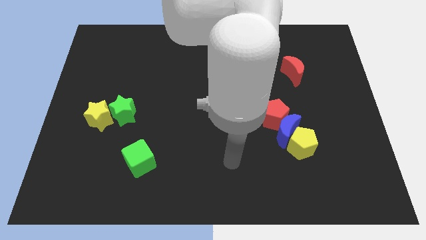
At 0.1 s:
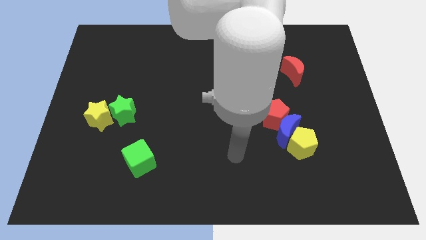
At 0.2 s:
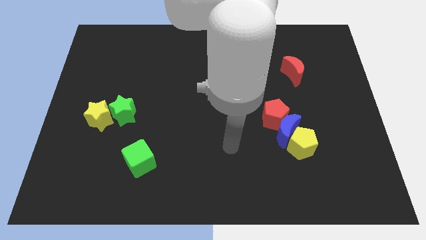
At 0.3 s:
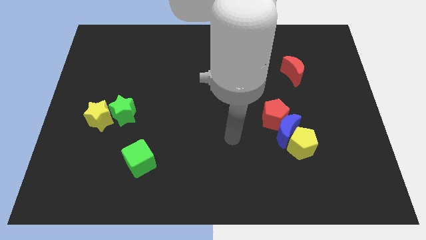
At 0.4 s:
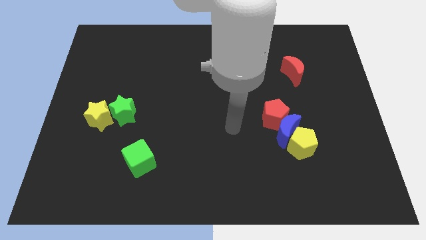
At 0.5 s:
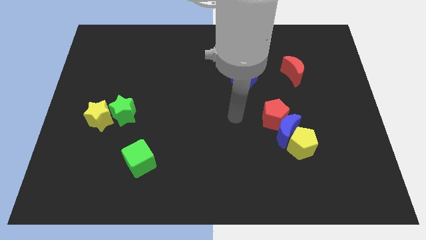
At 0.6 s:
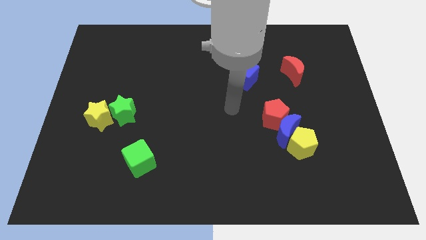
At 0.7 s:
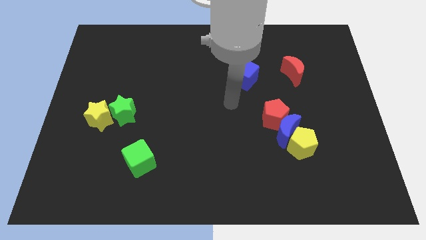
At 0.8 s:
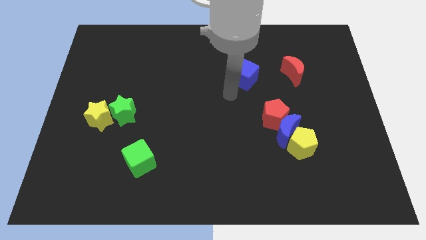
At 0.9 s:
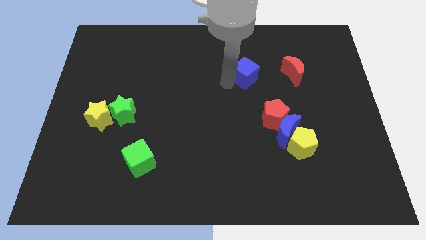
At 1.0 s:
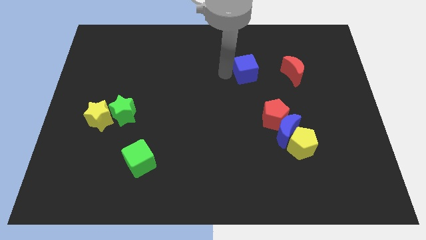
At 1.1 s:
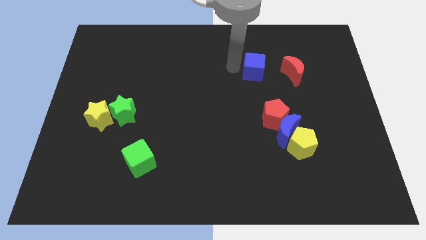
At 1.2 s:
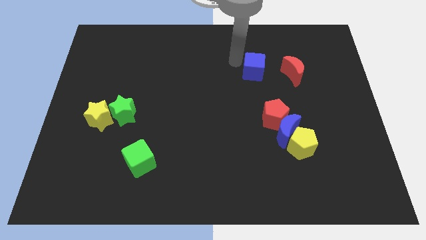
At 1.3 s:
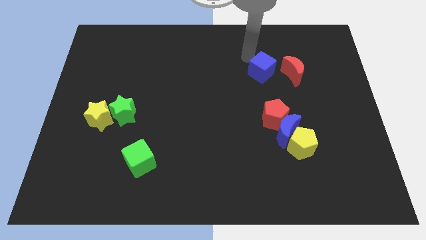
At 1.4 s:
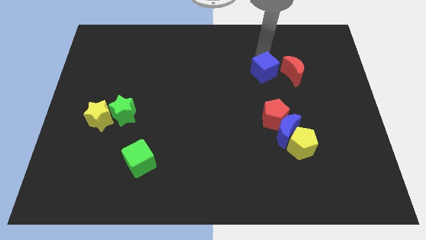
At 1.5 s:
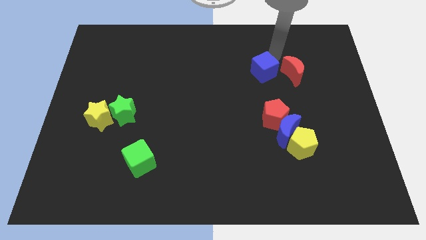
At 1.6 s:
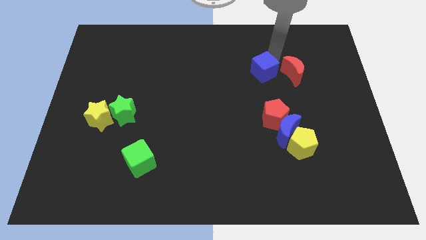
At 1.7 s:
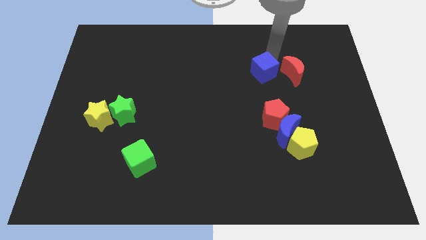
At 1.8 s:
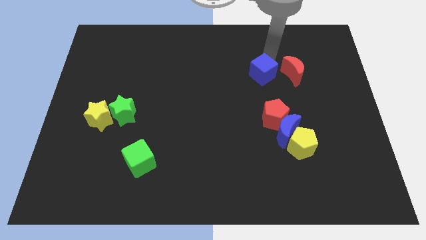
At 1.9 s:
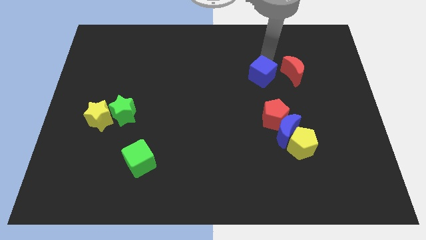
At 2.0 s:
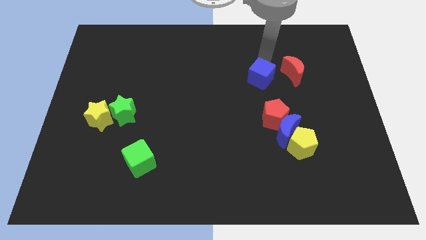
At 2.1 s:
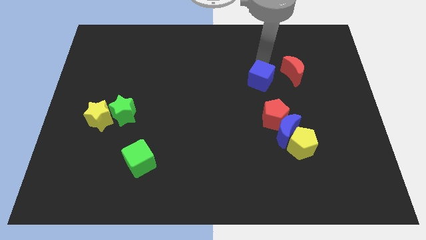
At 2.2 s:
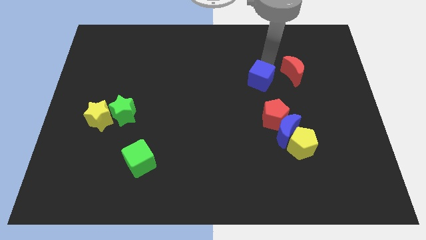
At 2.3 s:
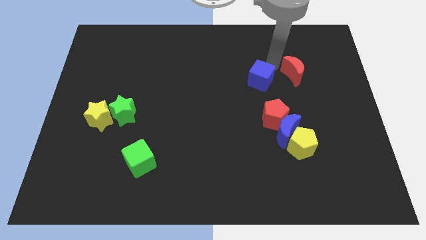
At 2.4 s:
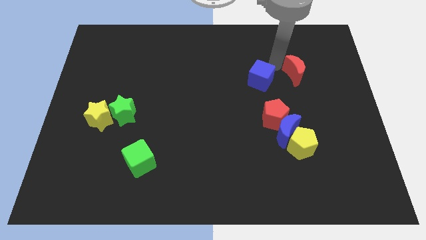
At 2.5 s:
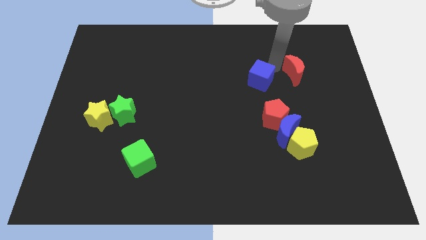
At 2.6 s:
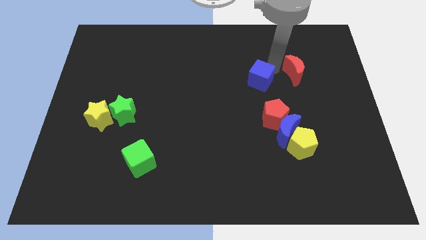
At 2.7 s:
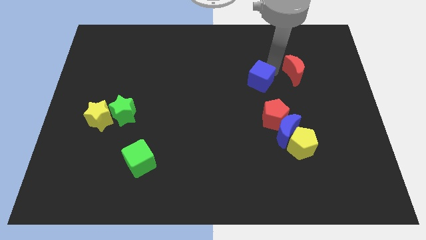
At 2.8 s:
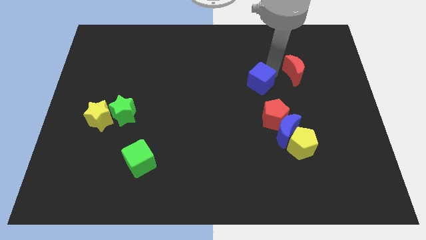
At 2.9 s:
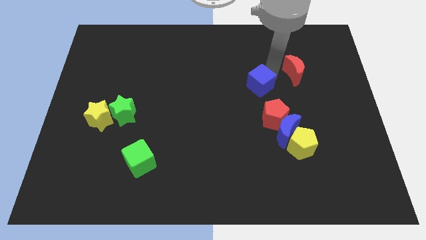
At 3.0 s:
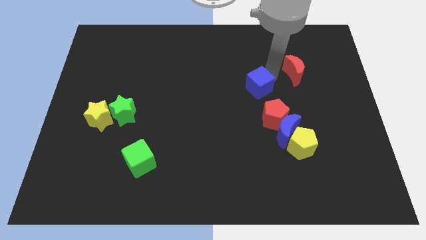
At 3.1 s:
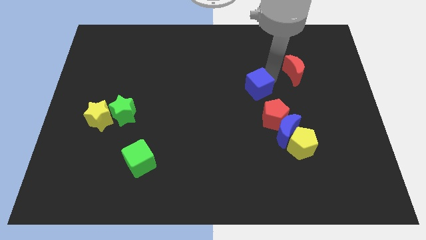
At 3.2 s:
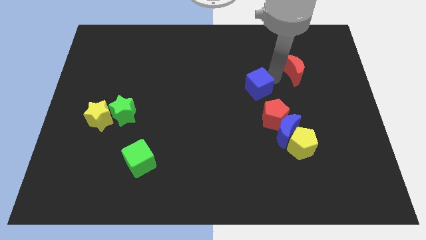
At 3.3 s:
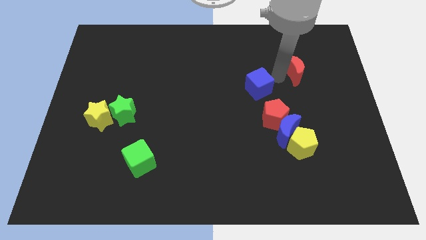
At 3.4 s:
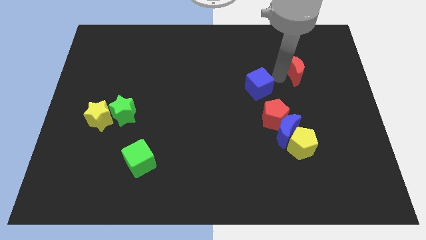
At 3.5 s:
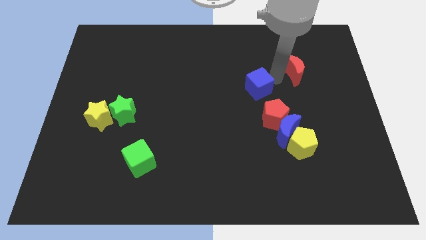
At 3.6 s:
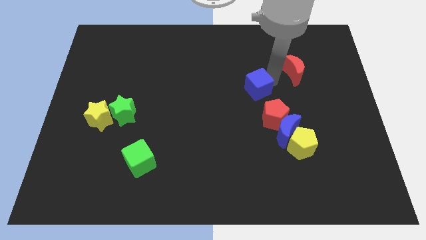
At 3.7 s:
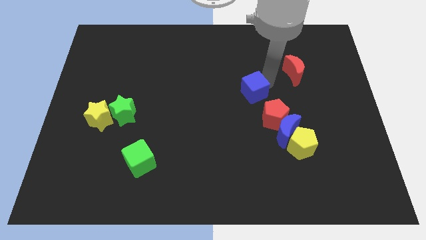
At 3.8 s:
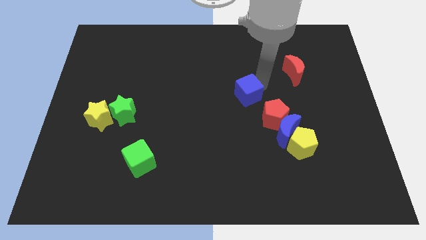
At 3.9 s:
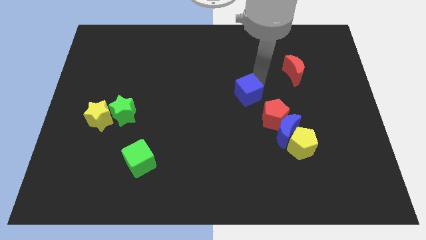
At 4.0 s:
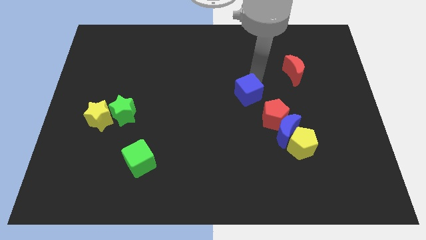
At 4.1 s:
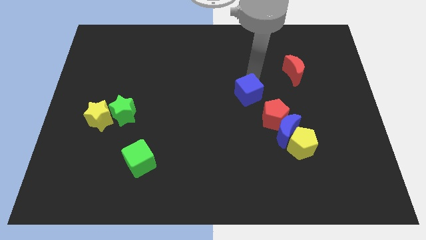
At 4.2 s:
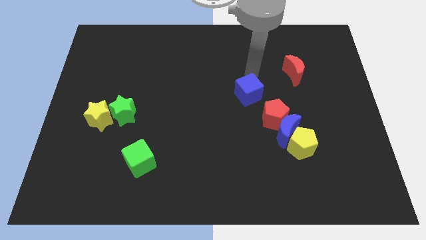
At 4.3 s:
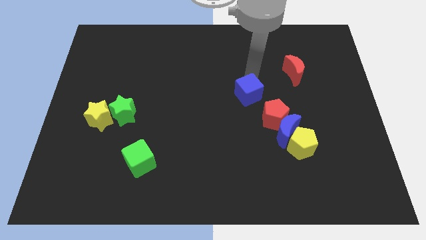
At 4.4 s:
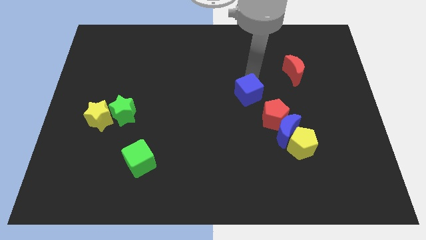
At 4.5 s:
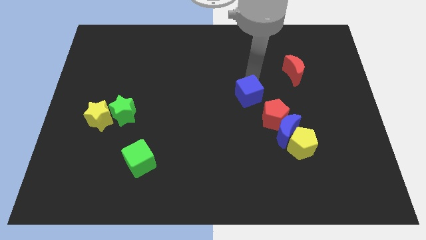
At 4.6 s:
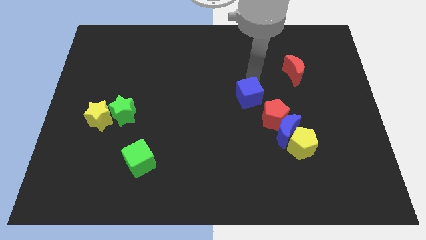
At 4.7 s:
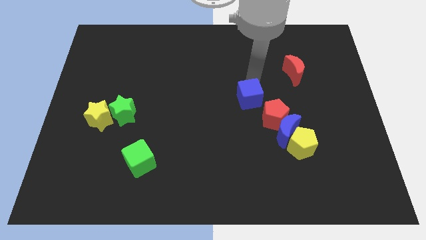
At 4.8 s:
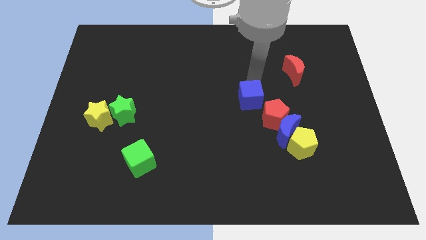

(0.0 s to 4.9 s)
move the blue cube a little bit downwards

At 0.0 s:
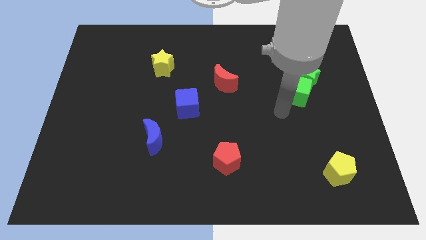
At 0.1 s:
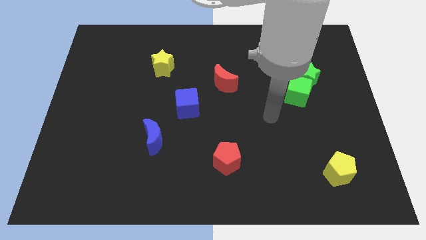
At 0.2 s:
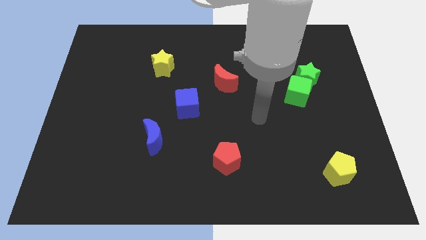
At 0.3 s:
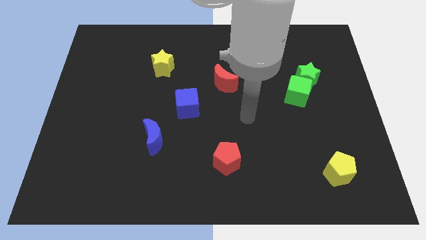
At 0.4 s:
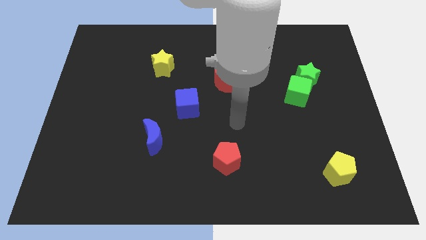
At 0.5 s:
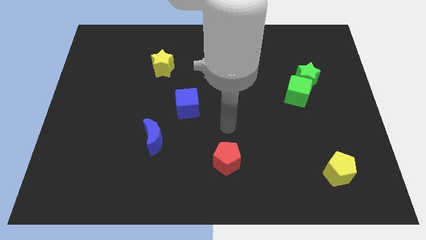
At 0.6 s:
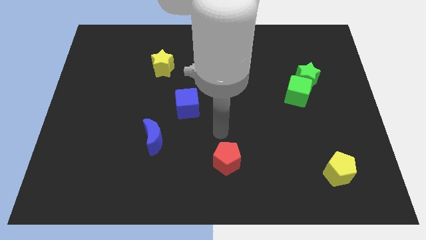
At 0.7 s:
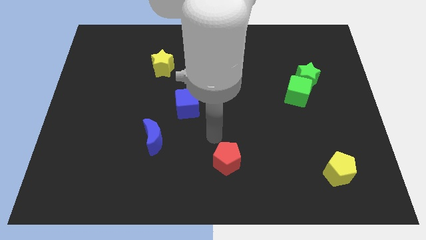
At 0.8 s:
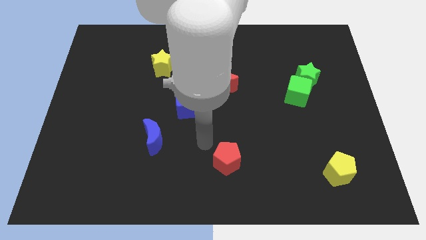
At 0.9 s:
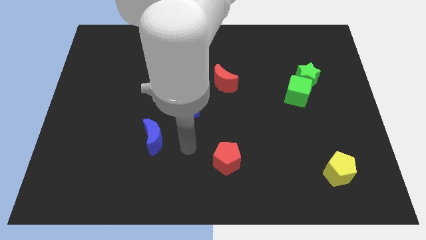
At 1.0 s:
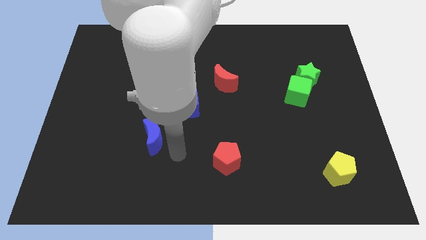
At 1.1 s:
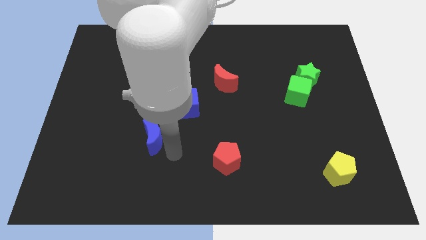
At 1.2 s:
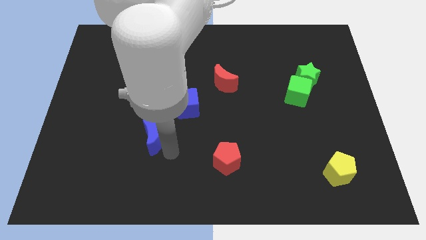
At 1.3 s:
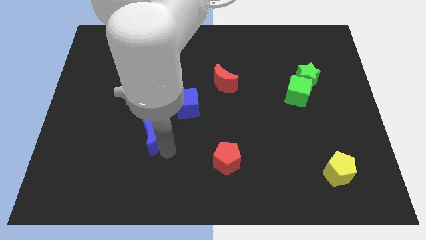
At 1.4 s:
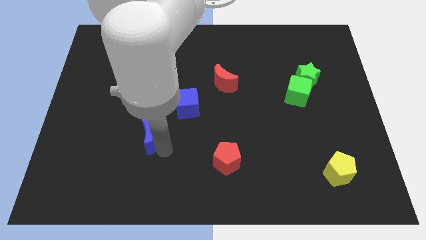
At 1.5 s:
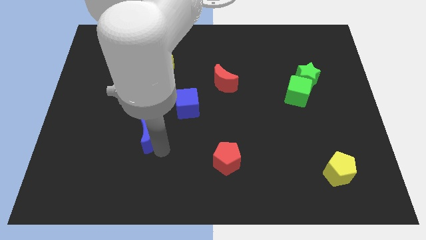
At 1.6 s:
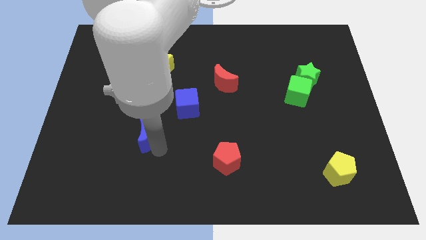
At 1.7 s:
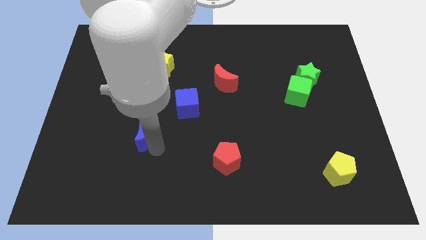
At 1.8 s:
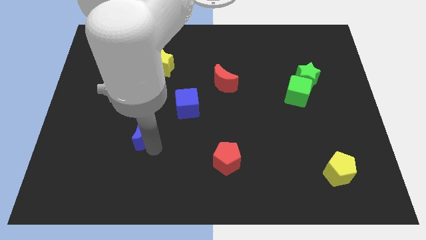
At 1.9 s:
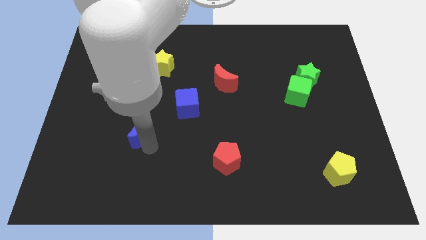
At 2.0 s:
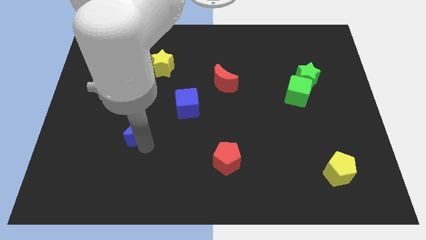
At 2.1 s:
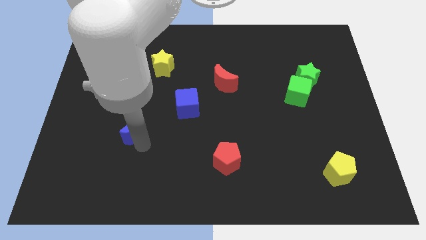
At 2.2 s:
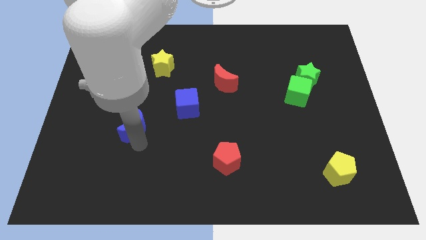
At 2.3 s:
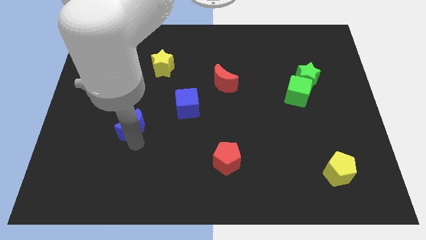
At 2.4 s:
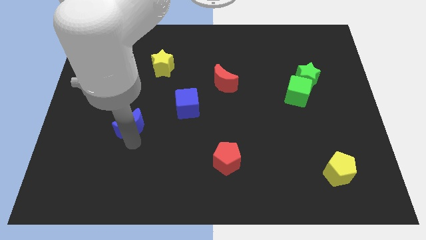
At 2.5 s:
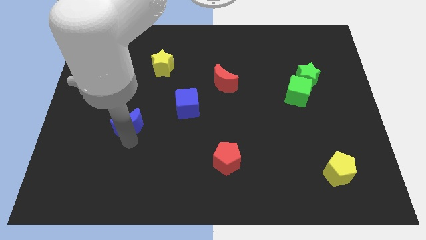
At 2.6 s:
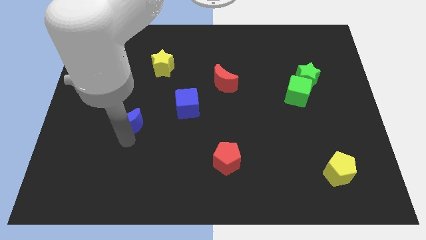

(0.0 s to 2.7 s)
slide the blue moon a bit up and to the left

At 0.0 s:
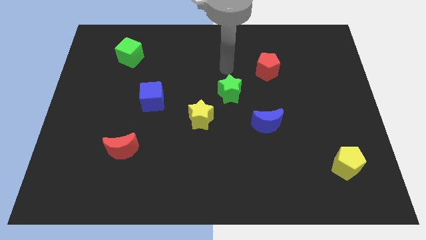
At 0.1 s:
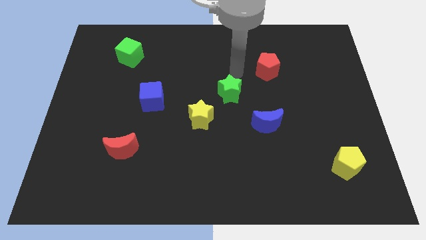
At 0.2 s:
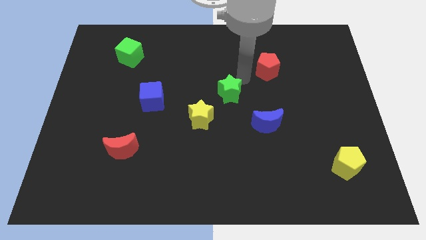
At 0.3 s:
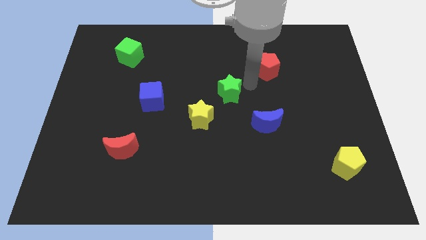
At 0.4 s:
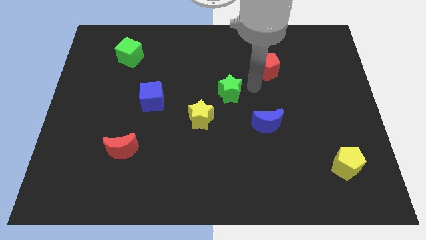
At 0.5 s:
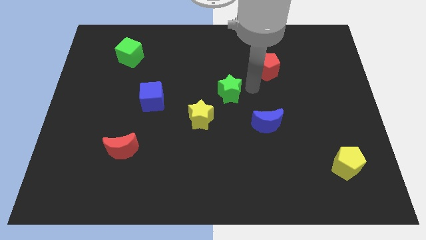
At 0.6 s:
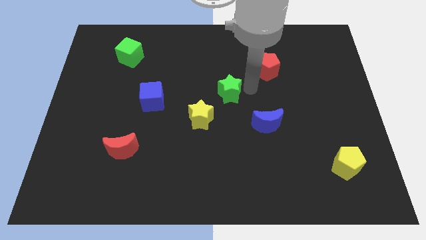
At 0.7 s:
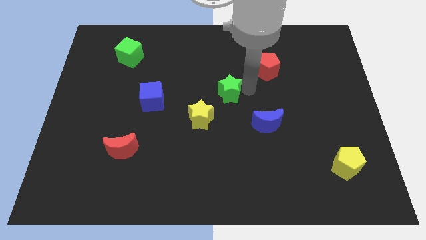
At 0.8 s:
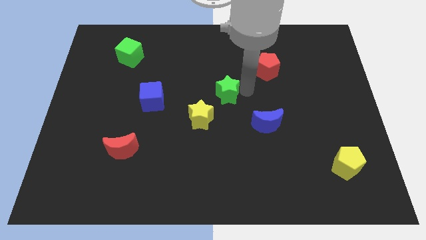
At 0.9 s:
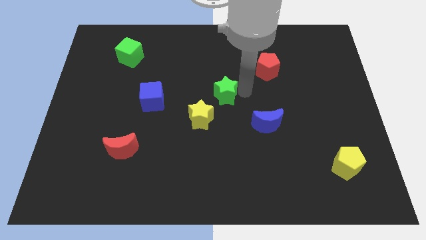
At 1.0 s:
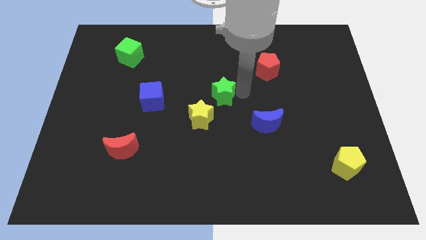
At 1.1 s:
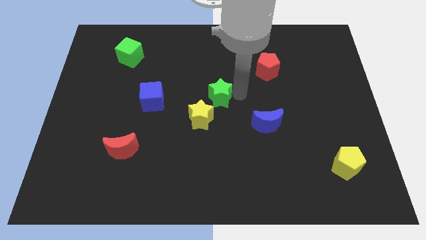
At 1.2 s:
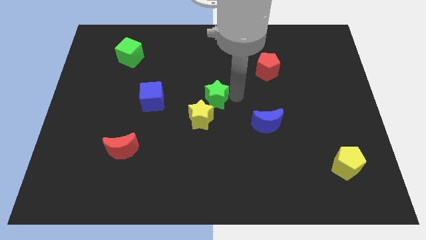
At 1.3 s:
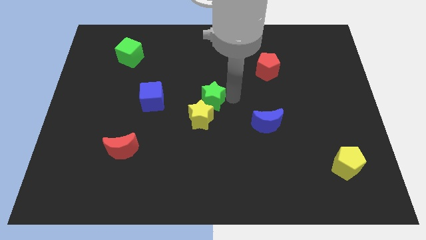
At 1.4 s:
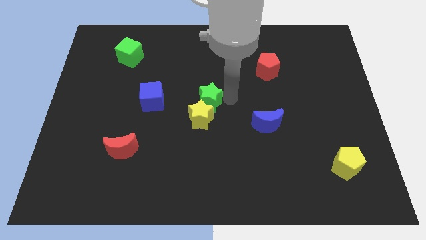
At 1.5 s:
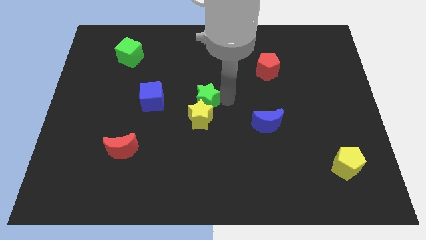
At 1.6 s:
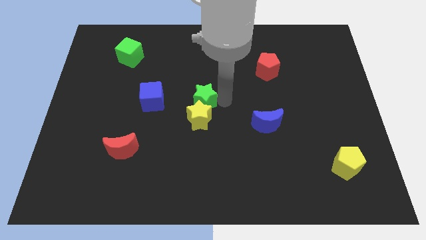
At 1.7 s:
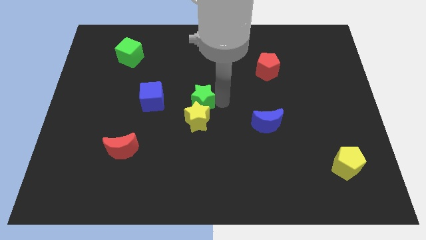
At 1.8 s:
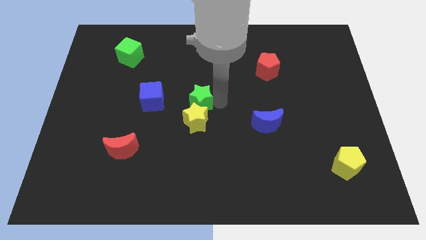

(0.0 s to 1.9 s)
slide the green star down and left somewhat
